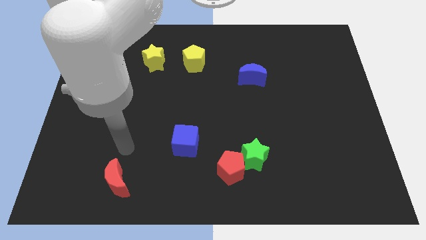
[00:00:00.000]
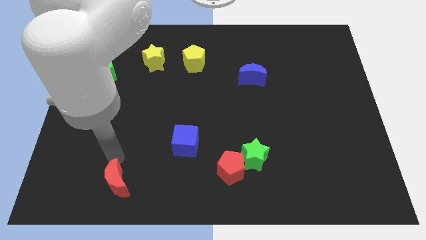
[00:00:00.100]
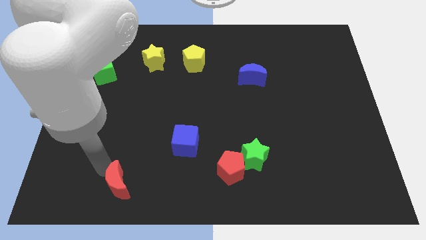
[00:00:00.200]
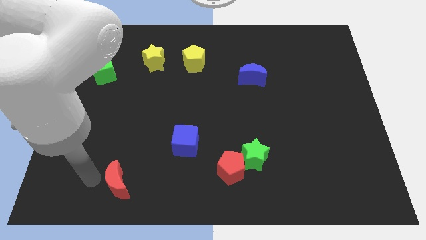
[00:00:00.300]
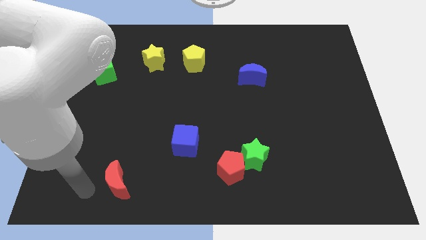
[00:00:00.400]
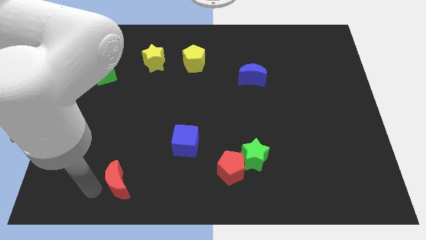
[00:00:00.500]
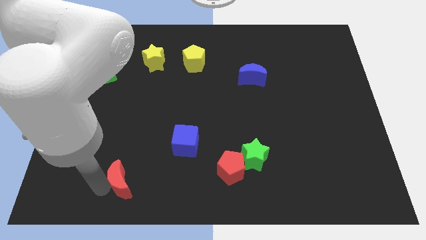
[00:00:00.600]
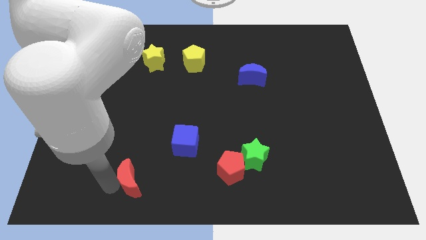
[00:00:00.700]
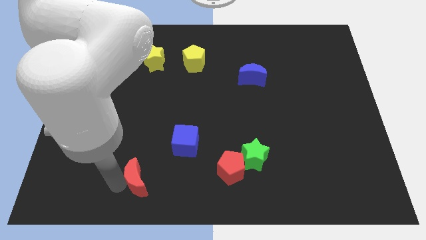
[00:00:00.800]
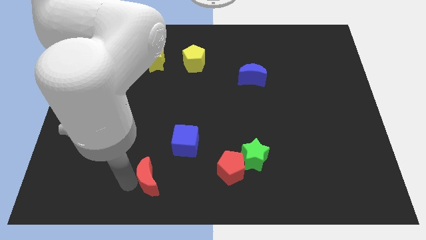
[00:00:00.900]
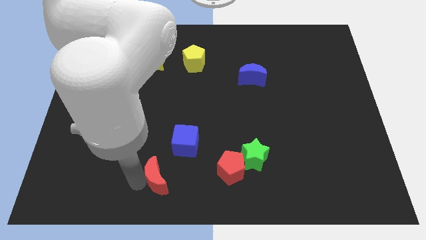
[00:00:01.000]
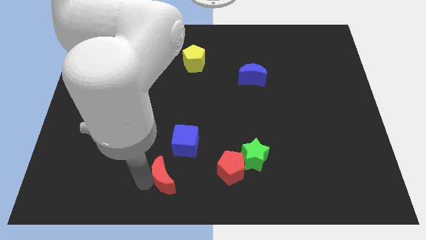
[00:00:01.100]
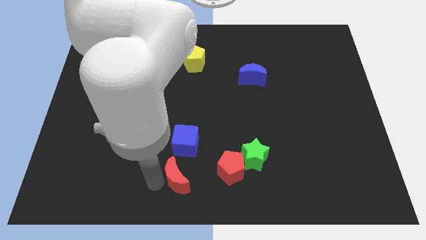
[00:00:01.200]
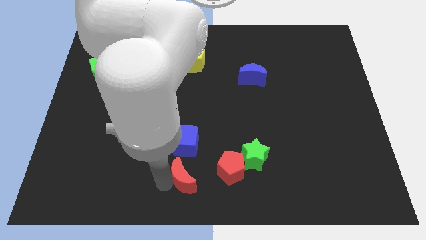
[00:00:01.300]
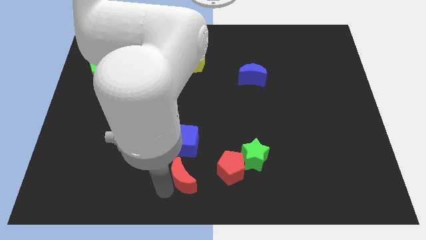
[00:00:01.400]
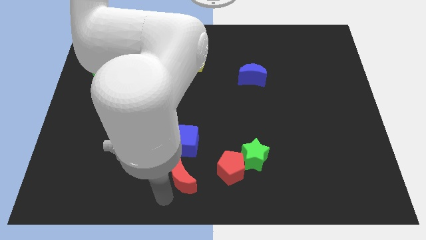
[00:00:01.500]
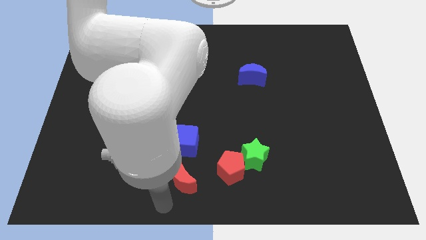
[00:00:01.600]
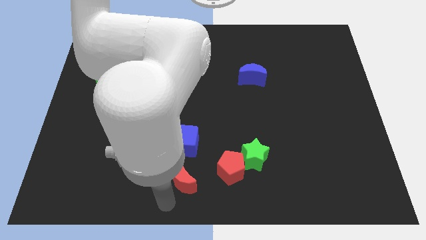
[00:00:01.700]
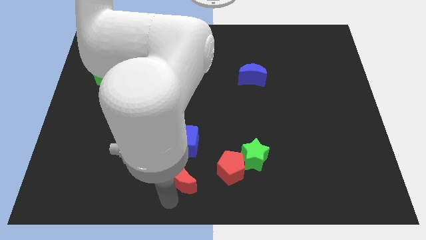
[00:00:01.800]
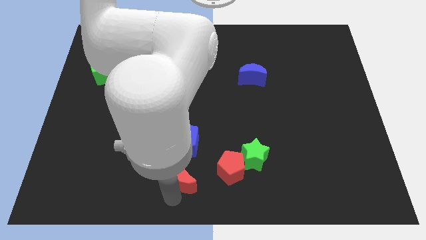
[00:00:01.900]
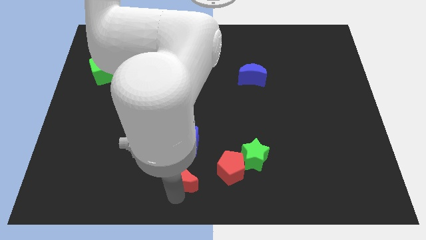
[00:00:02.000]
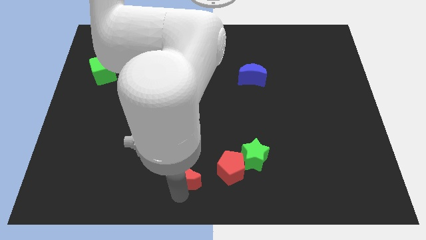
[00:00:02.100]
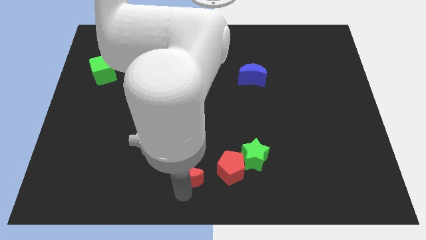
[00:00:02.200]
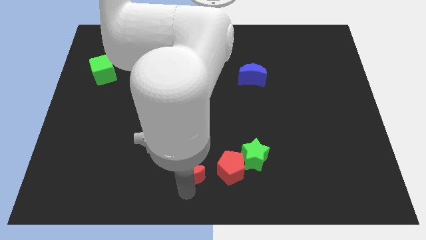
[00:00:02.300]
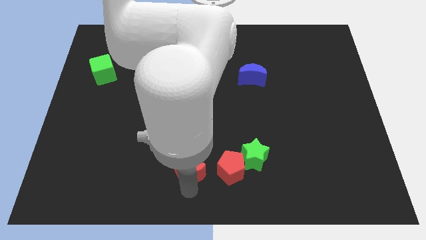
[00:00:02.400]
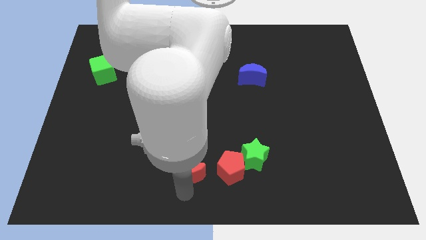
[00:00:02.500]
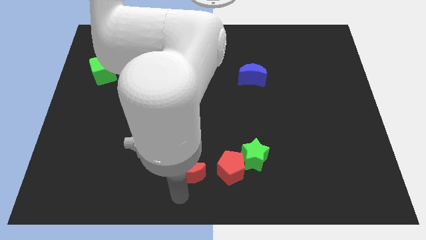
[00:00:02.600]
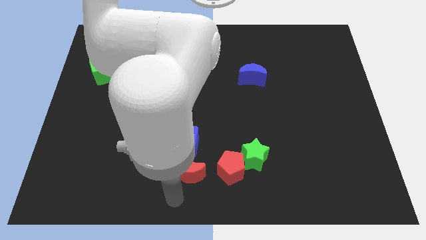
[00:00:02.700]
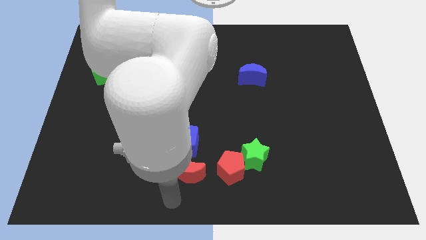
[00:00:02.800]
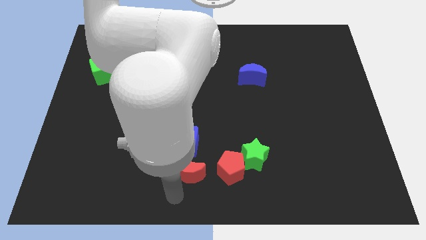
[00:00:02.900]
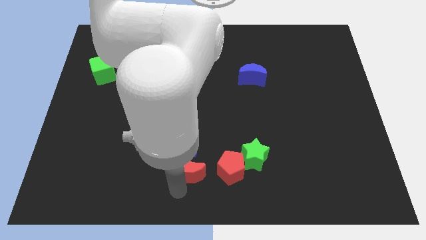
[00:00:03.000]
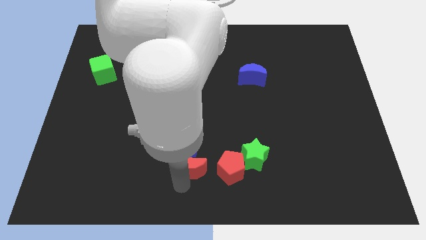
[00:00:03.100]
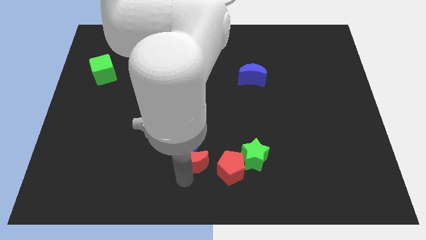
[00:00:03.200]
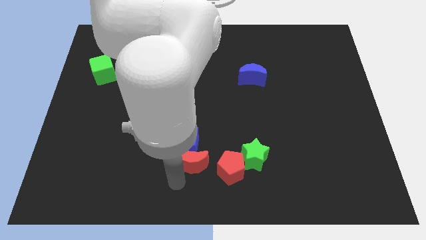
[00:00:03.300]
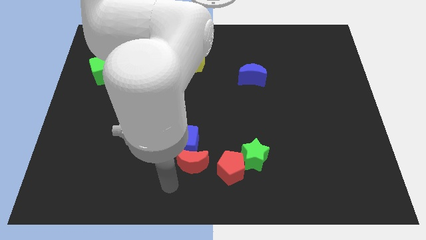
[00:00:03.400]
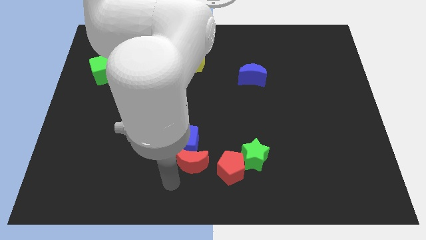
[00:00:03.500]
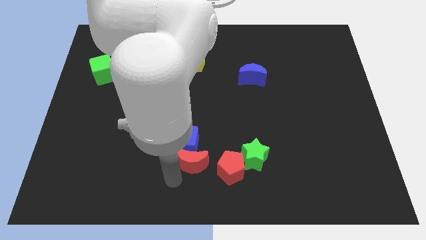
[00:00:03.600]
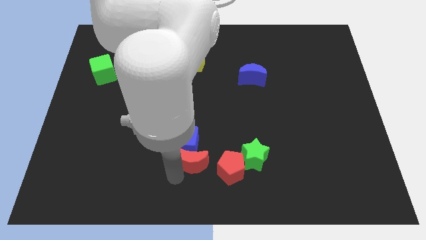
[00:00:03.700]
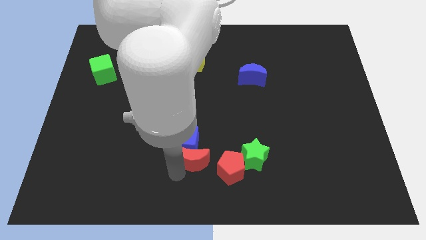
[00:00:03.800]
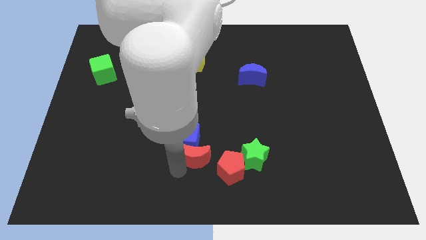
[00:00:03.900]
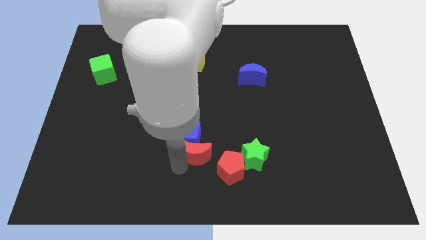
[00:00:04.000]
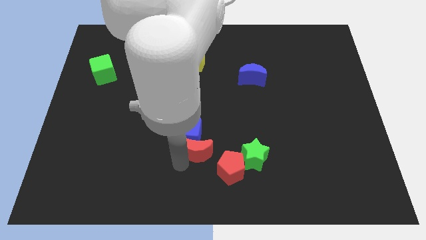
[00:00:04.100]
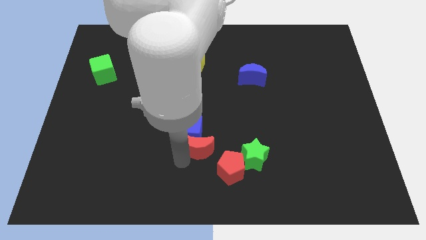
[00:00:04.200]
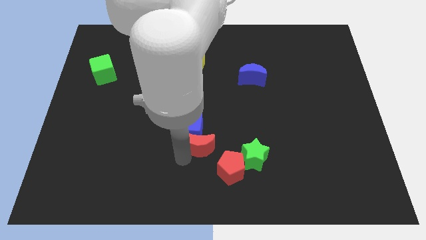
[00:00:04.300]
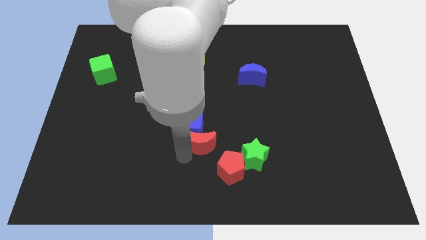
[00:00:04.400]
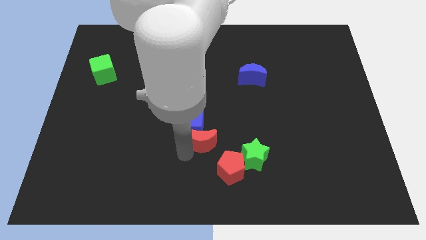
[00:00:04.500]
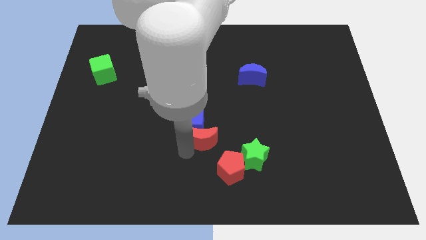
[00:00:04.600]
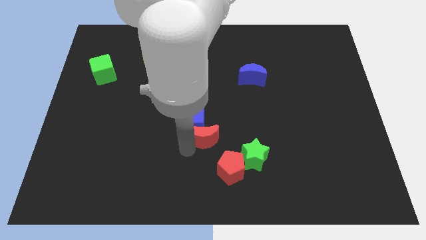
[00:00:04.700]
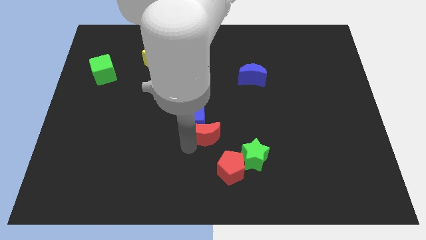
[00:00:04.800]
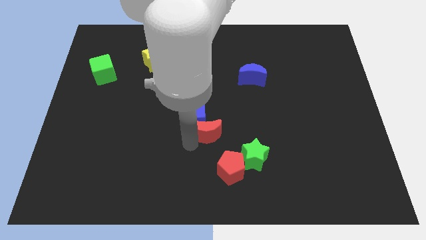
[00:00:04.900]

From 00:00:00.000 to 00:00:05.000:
move the red moon above the red pentagon

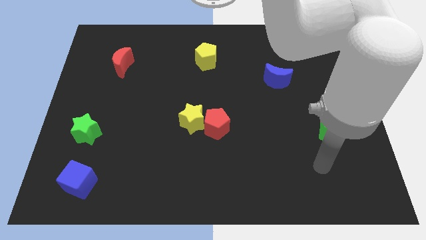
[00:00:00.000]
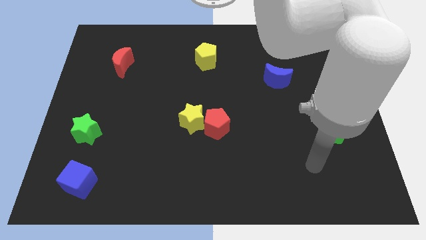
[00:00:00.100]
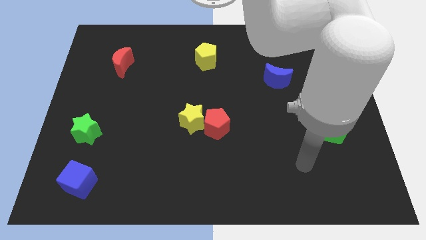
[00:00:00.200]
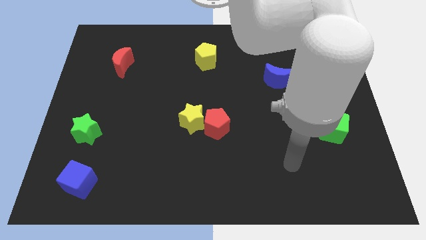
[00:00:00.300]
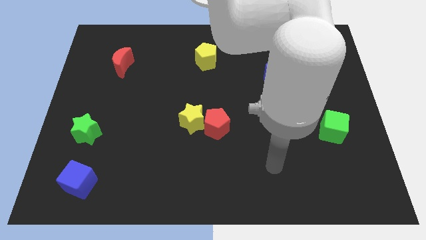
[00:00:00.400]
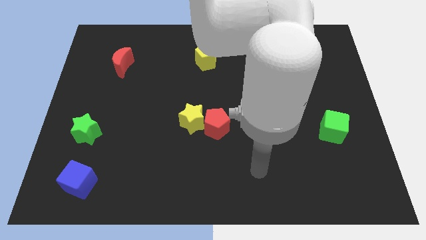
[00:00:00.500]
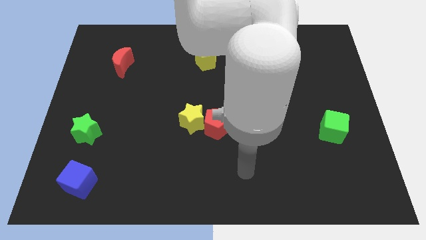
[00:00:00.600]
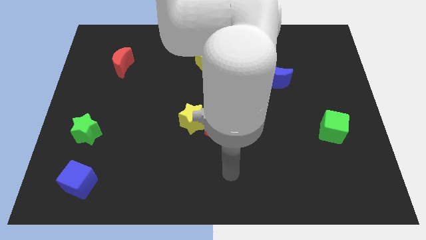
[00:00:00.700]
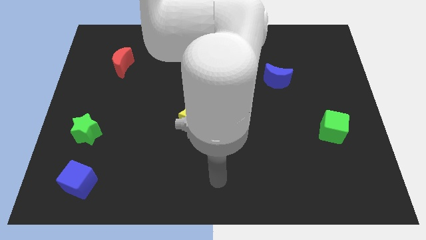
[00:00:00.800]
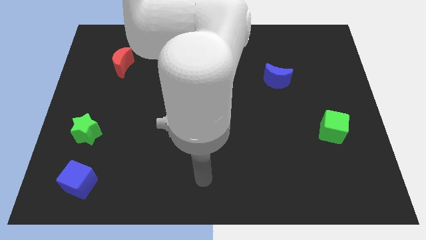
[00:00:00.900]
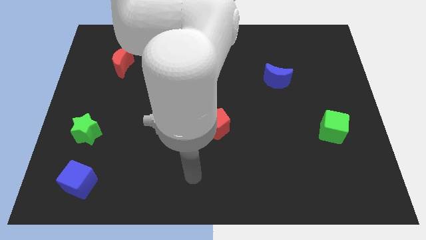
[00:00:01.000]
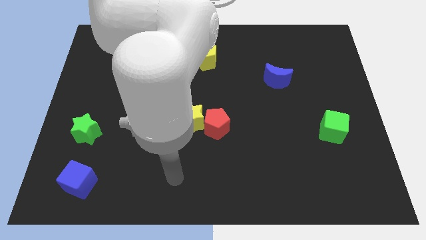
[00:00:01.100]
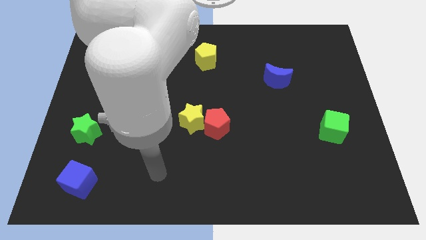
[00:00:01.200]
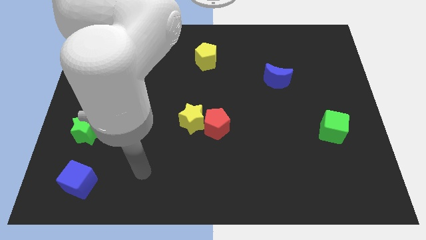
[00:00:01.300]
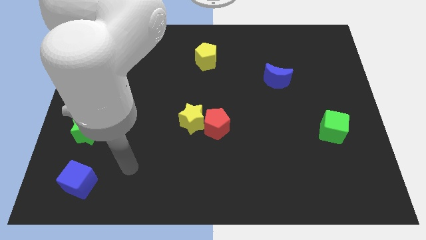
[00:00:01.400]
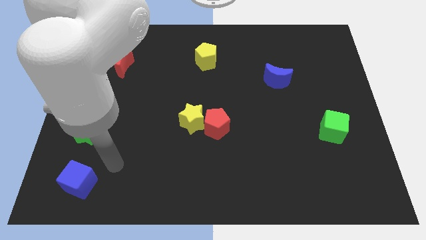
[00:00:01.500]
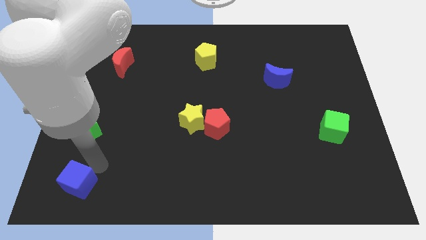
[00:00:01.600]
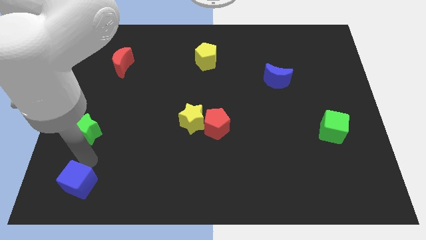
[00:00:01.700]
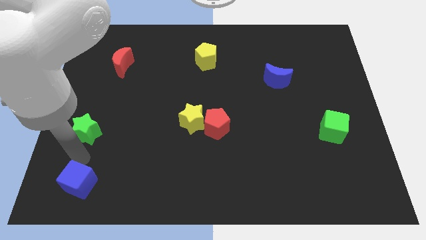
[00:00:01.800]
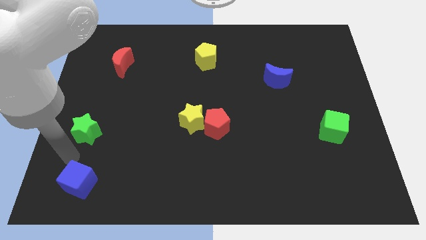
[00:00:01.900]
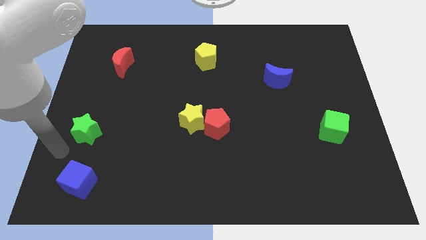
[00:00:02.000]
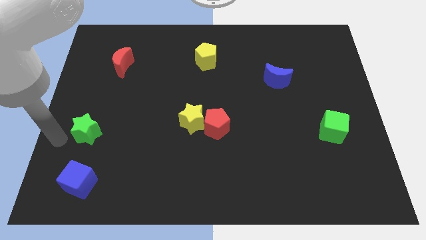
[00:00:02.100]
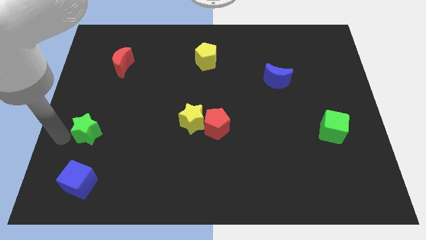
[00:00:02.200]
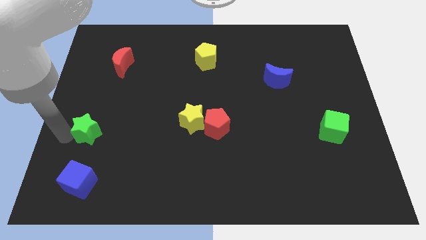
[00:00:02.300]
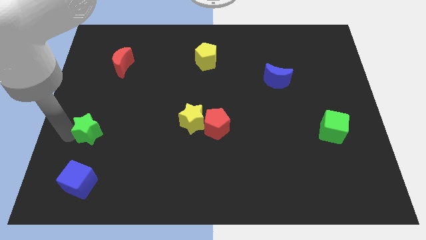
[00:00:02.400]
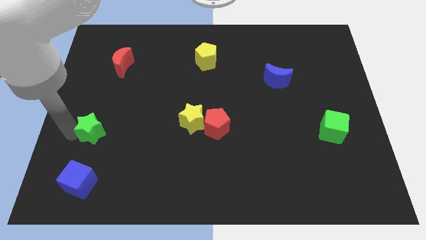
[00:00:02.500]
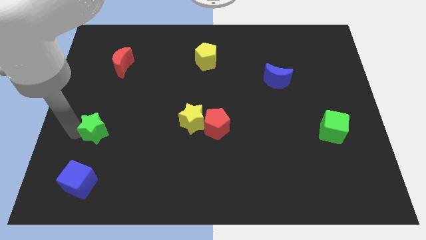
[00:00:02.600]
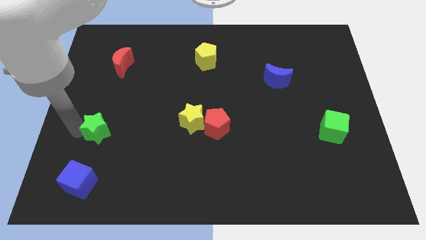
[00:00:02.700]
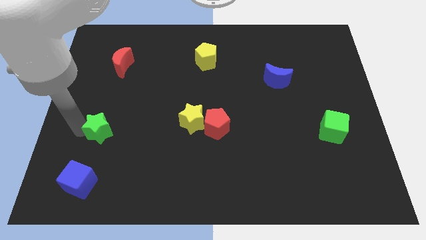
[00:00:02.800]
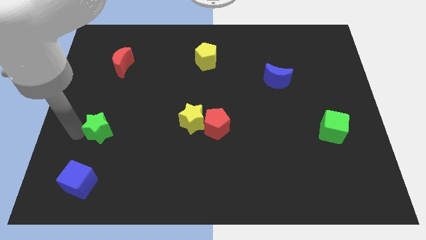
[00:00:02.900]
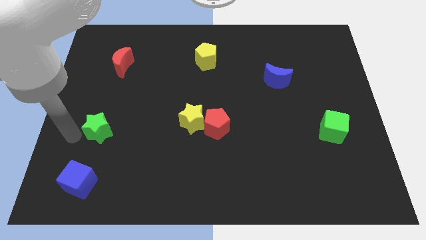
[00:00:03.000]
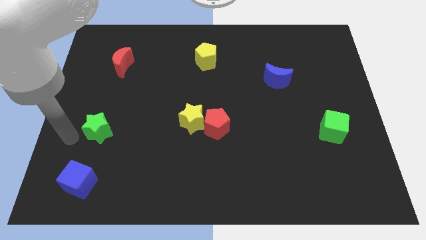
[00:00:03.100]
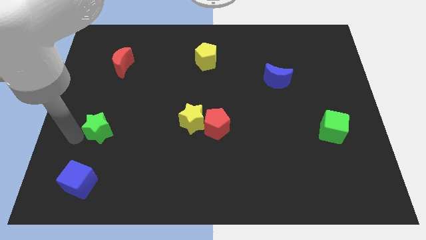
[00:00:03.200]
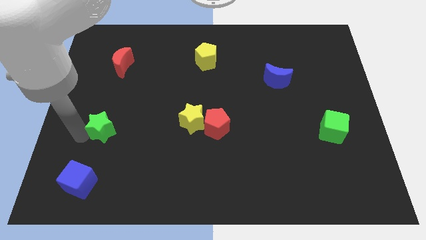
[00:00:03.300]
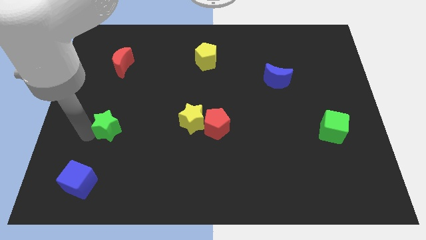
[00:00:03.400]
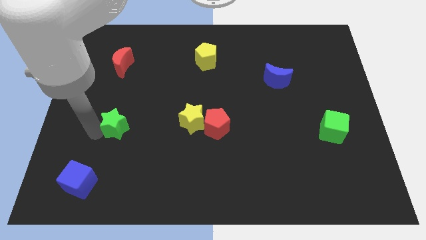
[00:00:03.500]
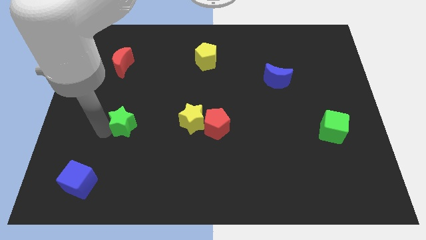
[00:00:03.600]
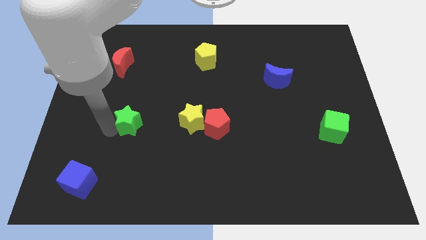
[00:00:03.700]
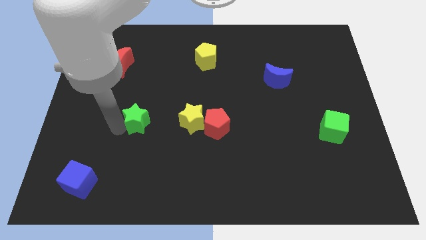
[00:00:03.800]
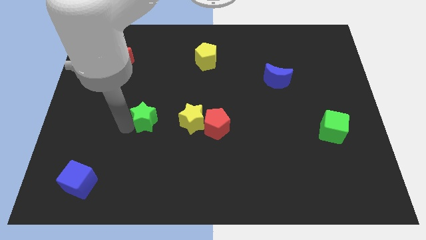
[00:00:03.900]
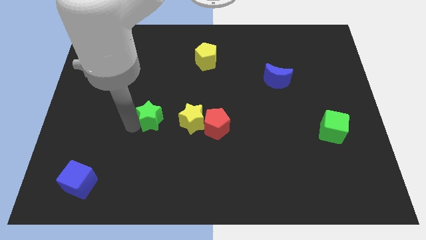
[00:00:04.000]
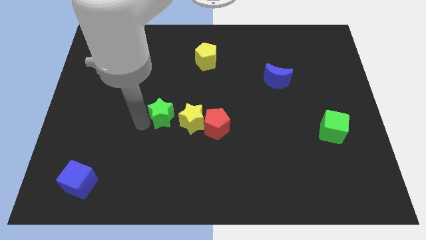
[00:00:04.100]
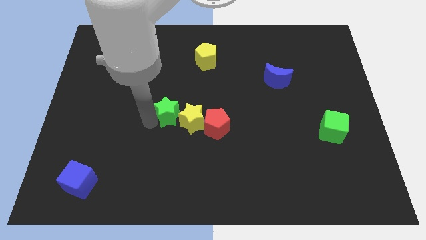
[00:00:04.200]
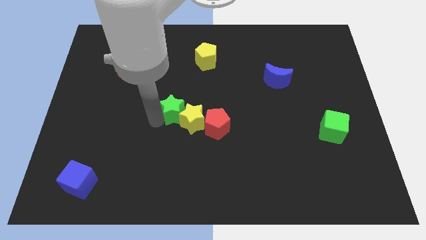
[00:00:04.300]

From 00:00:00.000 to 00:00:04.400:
push the green star to the top left side of the red pentagon
